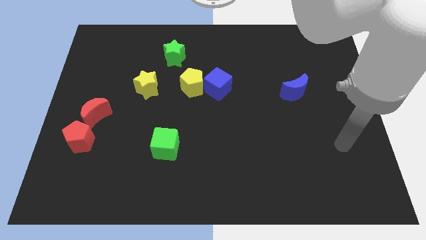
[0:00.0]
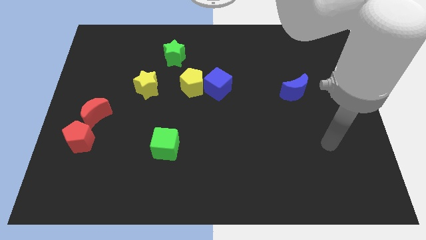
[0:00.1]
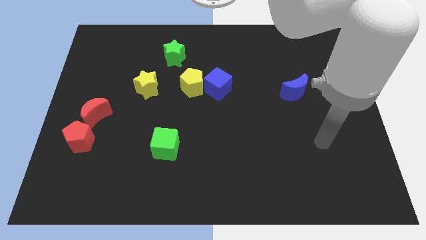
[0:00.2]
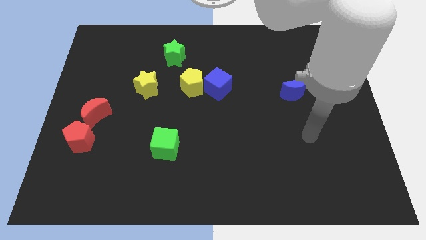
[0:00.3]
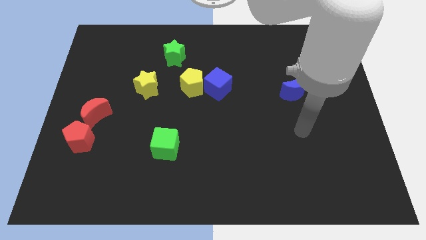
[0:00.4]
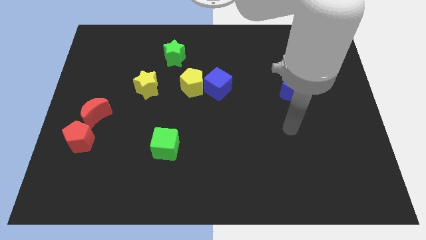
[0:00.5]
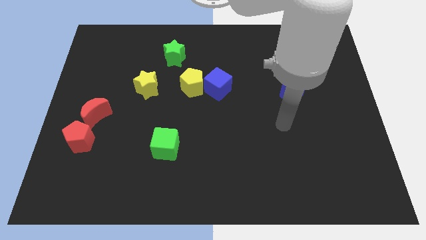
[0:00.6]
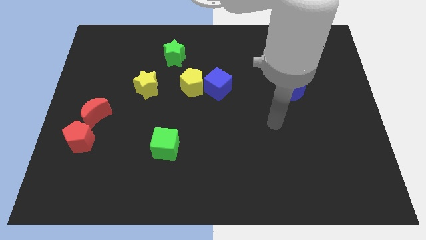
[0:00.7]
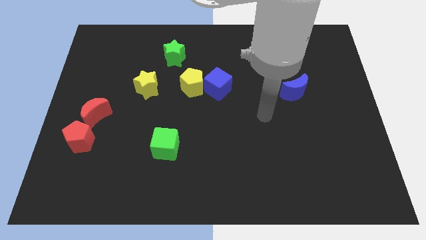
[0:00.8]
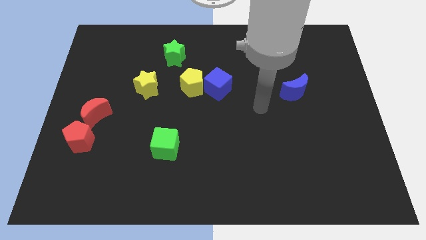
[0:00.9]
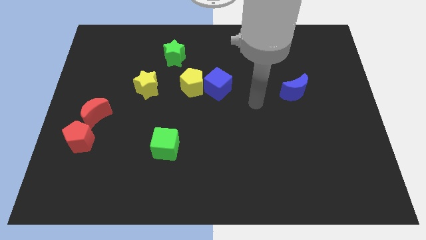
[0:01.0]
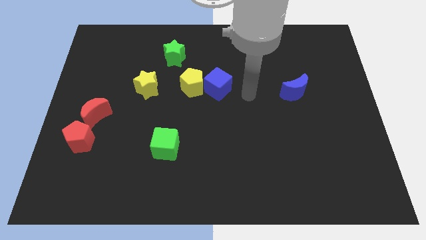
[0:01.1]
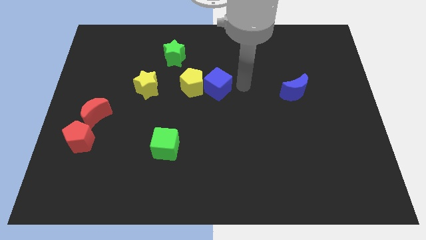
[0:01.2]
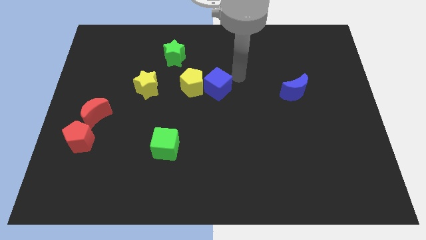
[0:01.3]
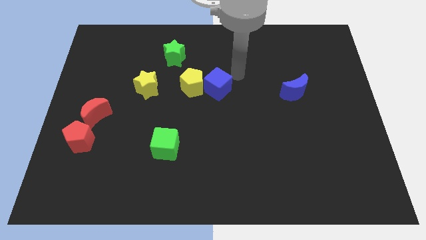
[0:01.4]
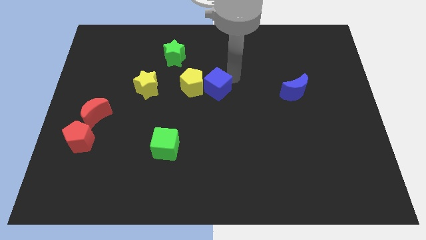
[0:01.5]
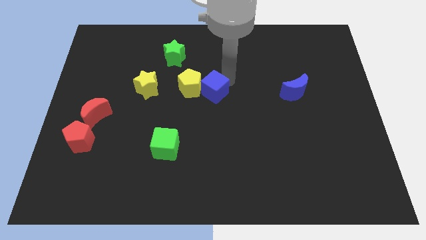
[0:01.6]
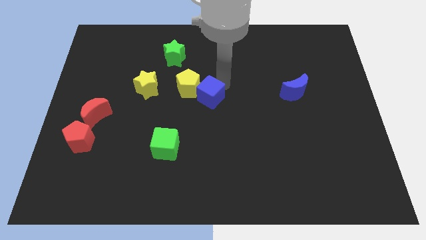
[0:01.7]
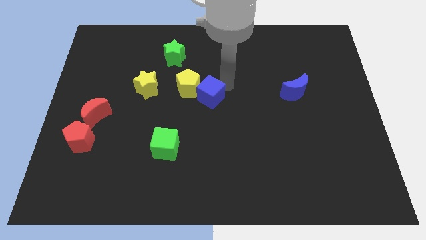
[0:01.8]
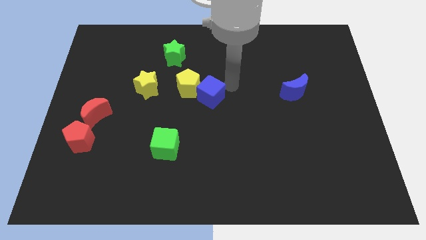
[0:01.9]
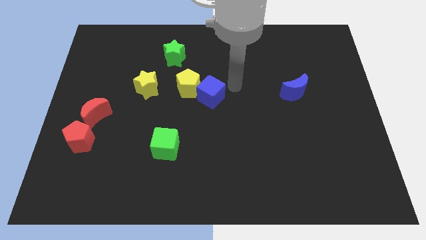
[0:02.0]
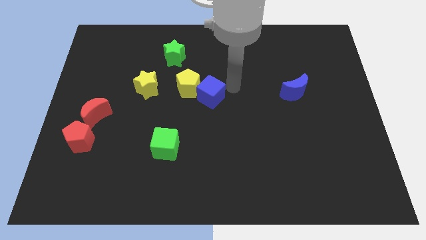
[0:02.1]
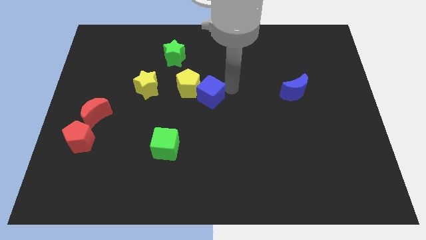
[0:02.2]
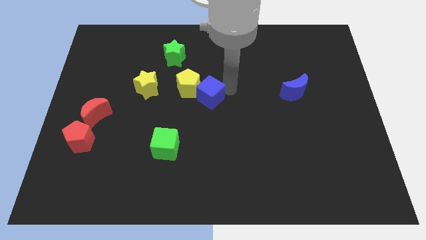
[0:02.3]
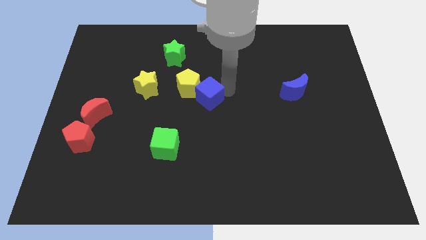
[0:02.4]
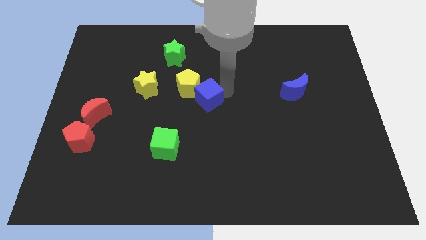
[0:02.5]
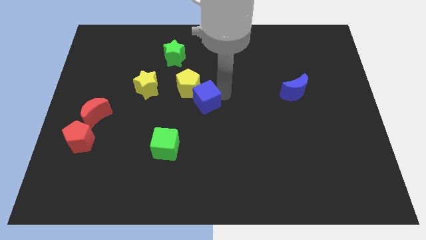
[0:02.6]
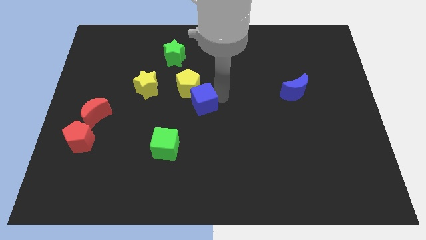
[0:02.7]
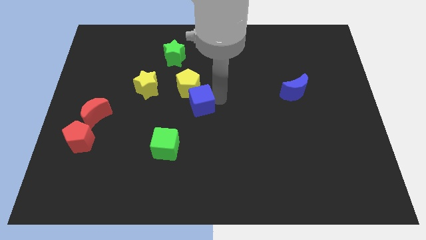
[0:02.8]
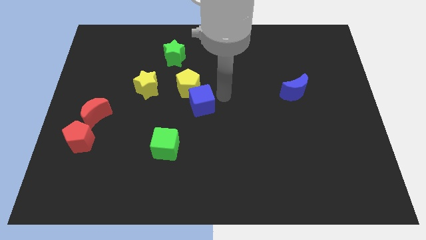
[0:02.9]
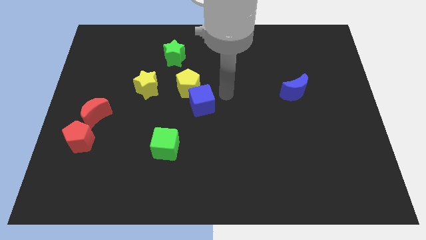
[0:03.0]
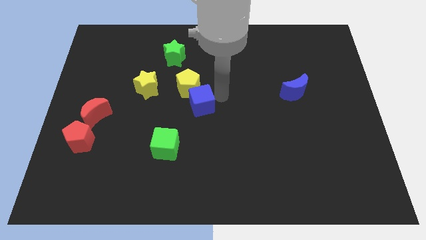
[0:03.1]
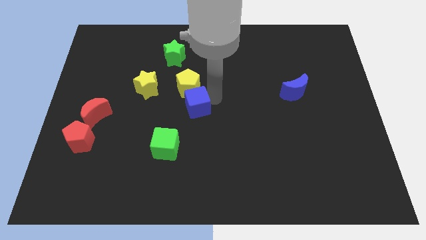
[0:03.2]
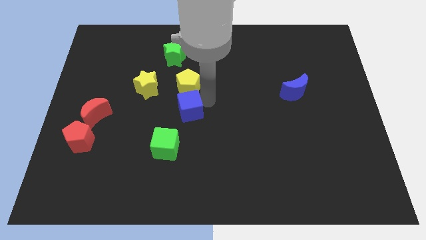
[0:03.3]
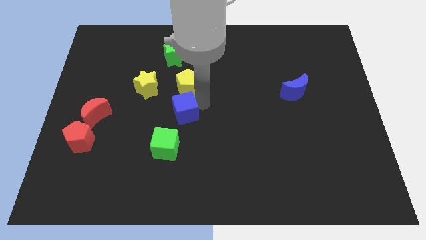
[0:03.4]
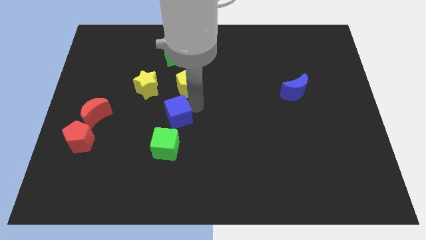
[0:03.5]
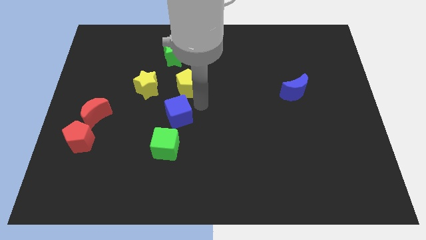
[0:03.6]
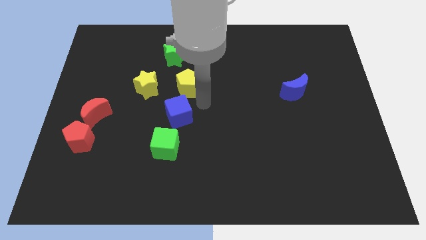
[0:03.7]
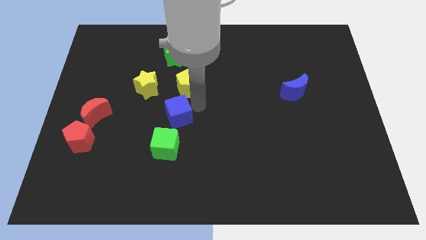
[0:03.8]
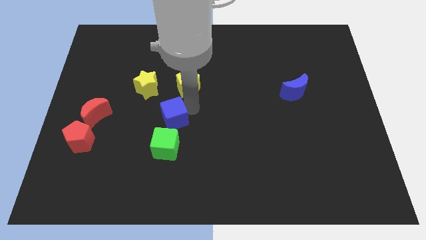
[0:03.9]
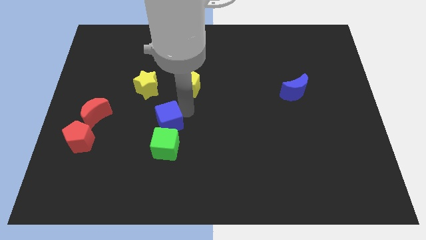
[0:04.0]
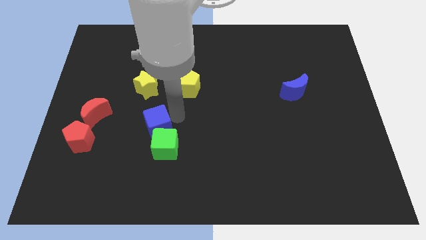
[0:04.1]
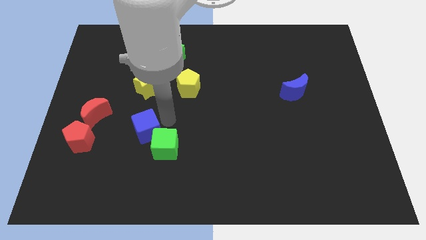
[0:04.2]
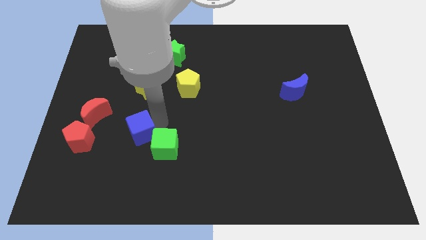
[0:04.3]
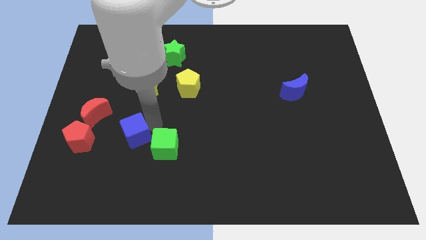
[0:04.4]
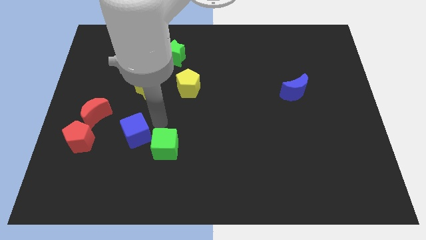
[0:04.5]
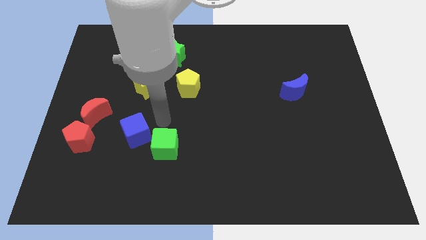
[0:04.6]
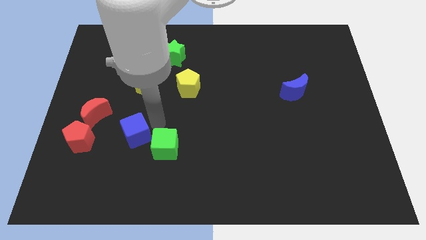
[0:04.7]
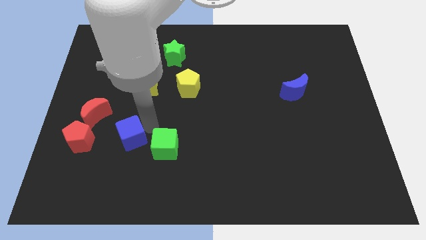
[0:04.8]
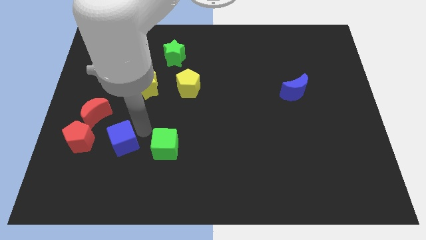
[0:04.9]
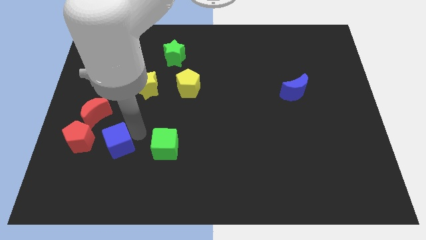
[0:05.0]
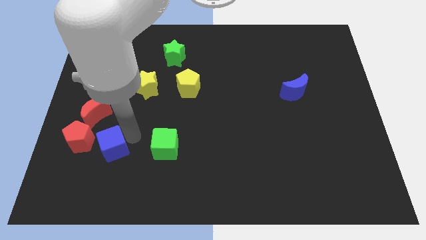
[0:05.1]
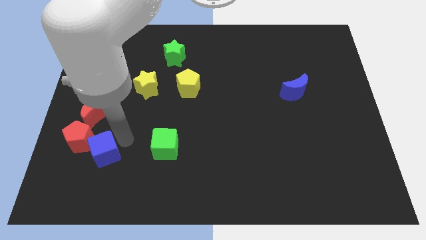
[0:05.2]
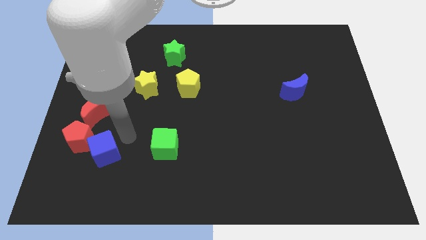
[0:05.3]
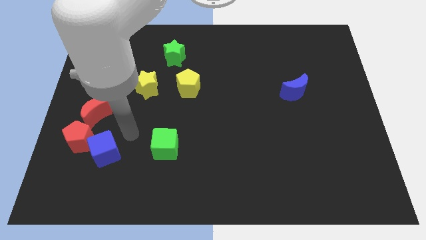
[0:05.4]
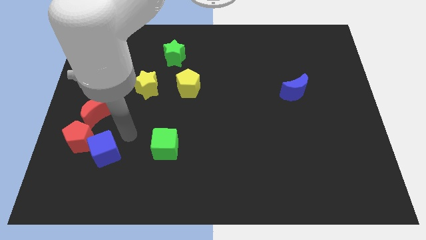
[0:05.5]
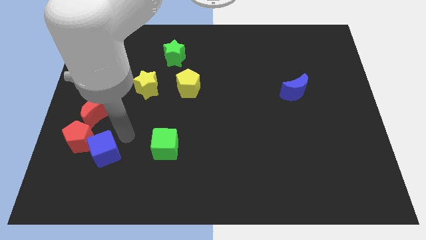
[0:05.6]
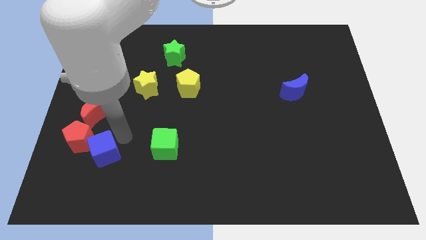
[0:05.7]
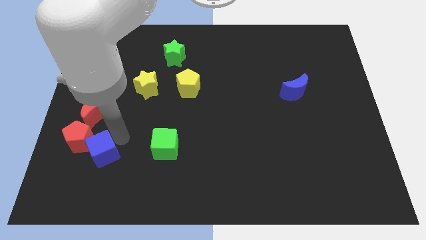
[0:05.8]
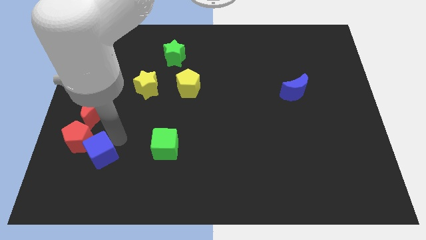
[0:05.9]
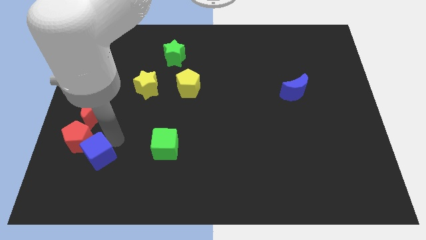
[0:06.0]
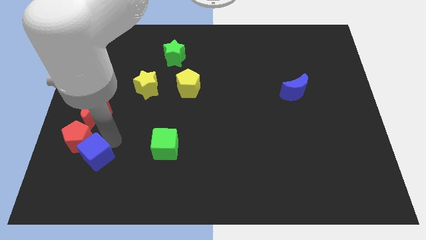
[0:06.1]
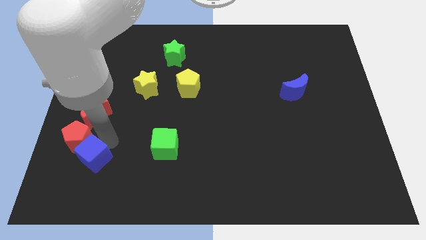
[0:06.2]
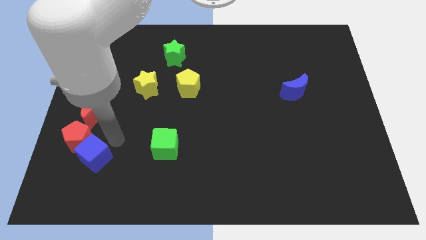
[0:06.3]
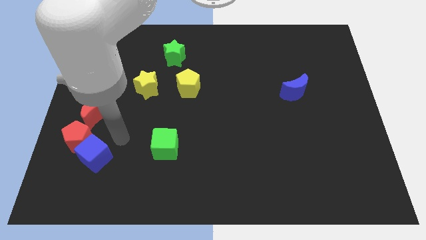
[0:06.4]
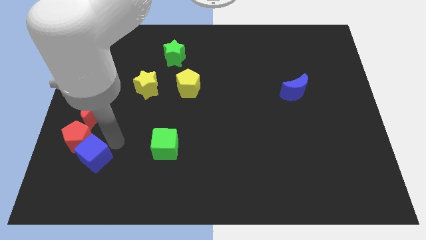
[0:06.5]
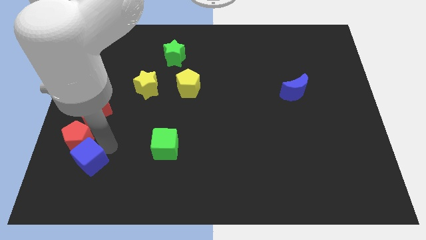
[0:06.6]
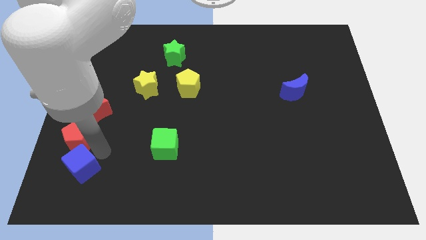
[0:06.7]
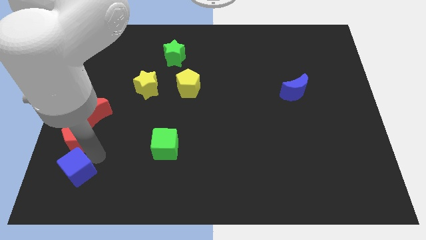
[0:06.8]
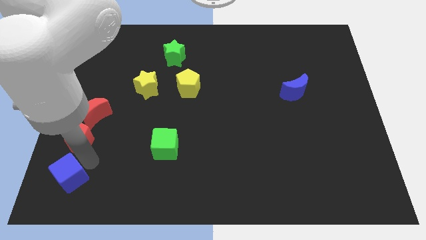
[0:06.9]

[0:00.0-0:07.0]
push the blue cube to the bottom left corner
